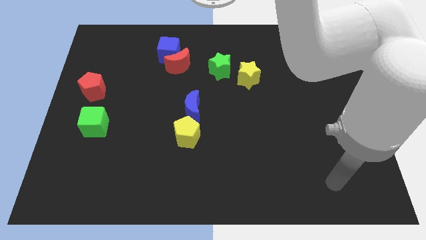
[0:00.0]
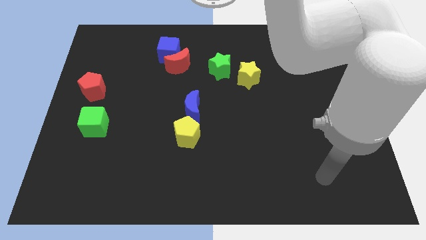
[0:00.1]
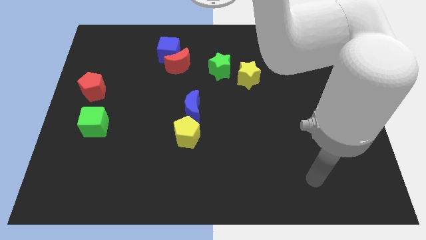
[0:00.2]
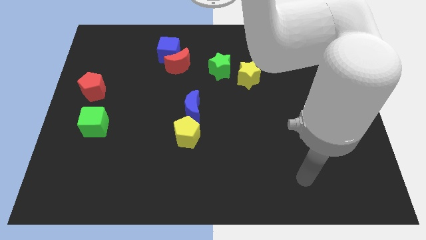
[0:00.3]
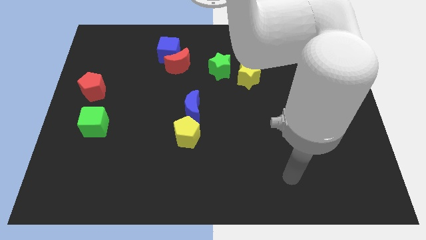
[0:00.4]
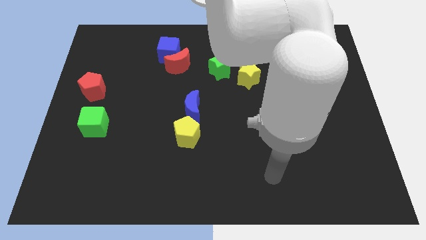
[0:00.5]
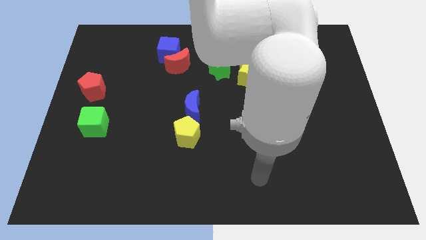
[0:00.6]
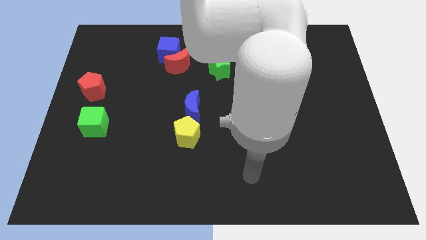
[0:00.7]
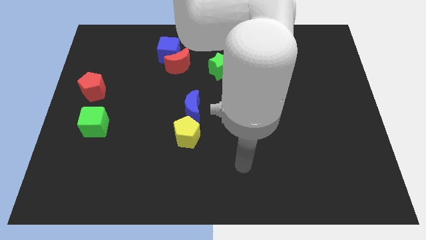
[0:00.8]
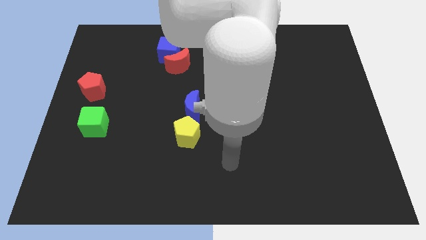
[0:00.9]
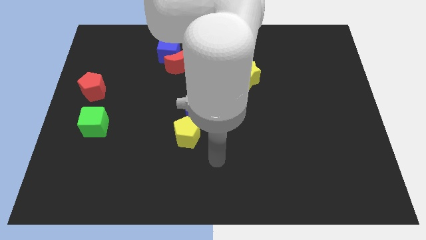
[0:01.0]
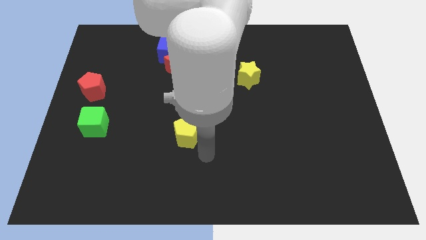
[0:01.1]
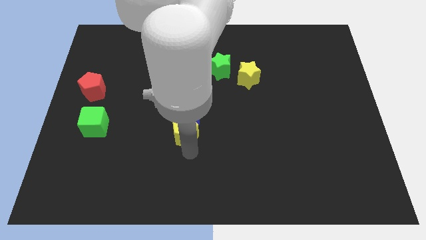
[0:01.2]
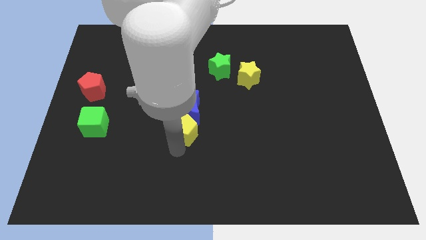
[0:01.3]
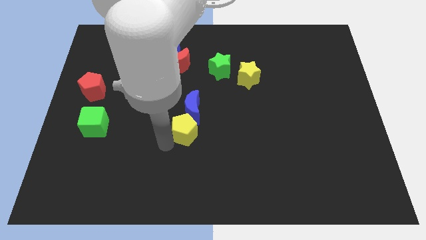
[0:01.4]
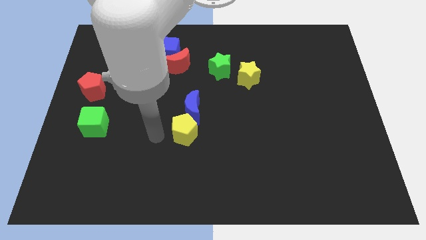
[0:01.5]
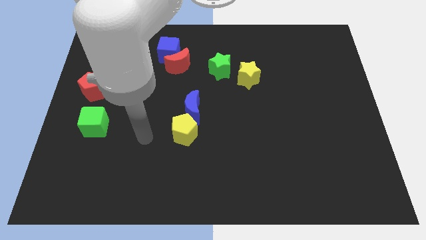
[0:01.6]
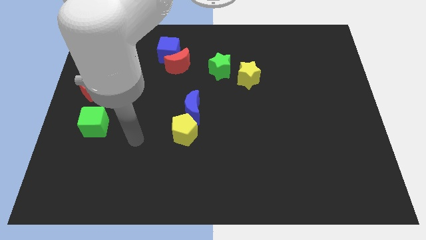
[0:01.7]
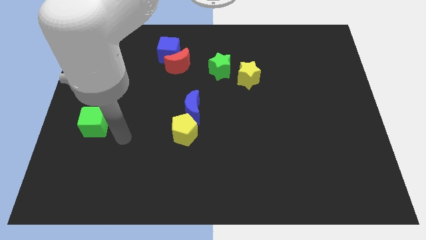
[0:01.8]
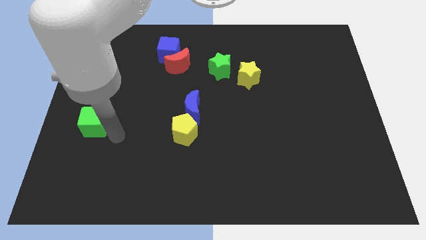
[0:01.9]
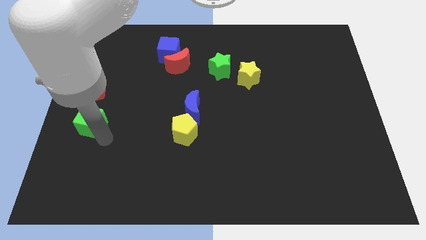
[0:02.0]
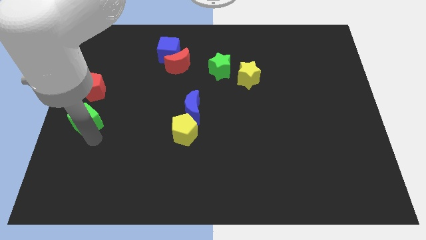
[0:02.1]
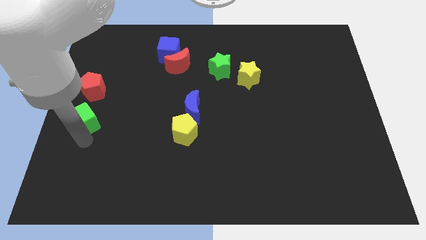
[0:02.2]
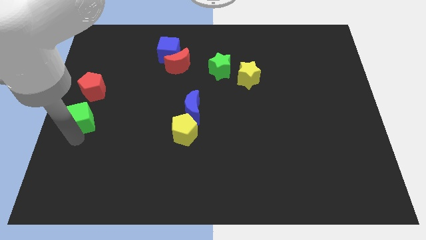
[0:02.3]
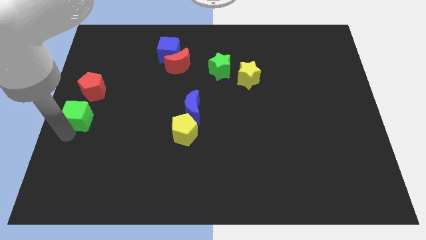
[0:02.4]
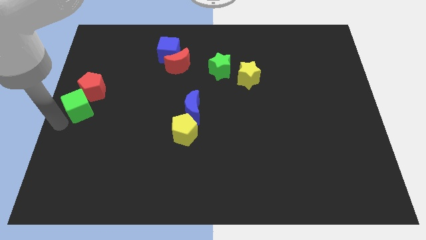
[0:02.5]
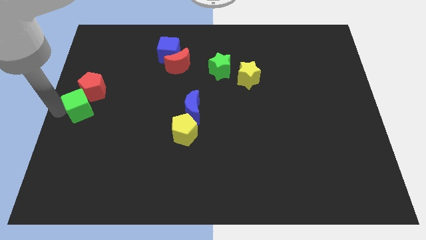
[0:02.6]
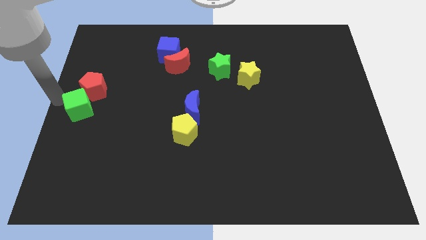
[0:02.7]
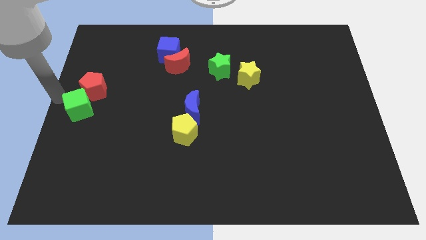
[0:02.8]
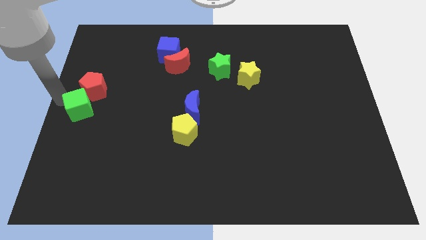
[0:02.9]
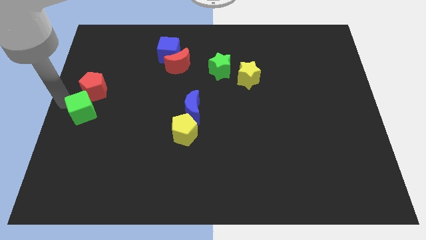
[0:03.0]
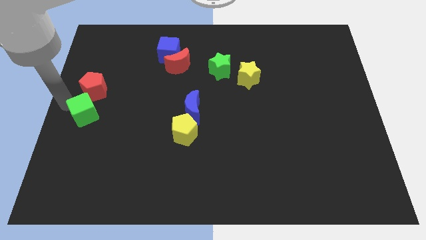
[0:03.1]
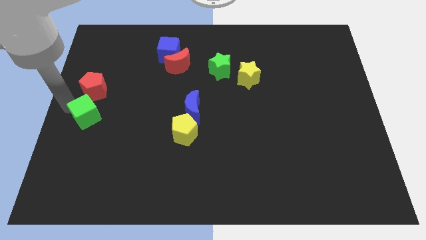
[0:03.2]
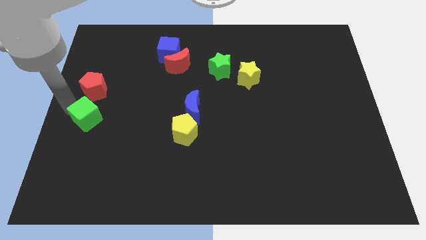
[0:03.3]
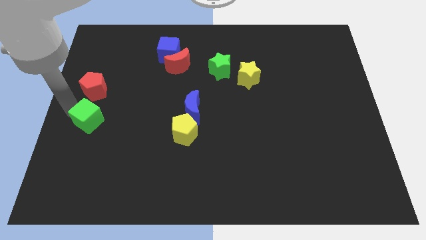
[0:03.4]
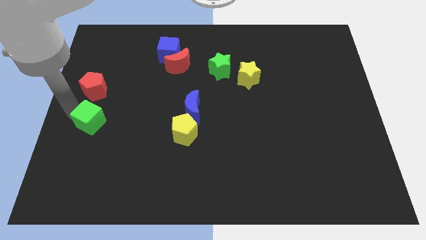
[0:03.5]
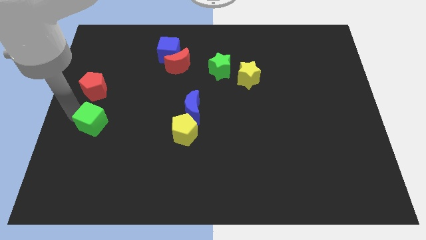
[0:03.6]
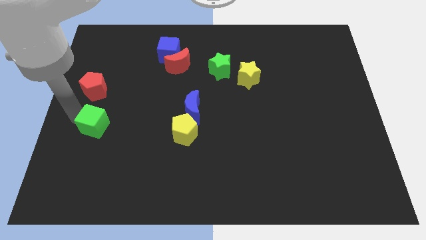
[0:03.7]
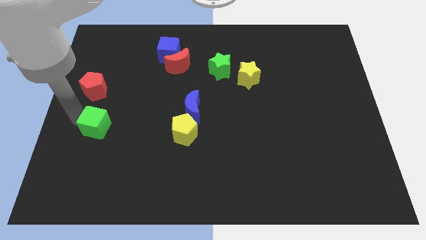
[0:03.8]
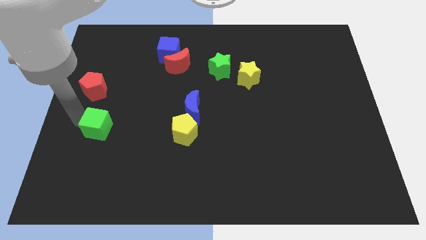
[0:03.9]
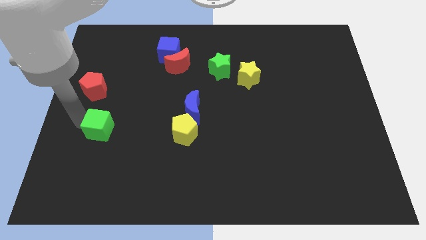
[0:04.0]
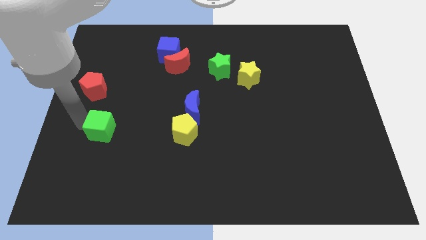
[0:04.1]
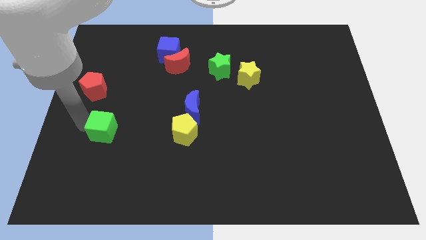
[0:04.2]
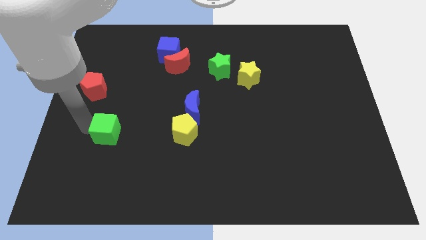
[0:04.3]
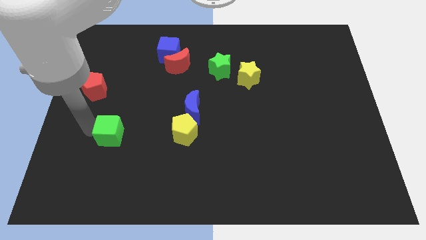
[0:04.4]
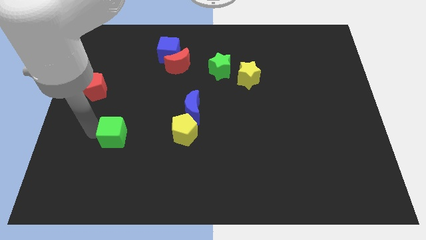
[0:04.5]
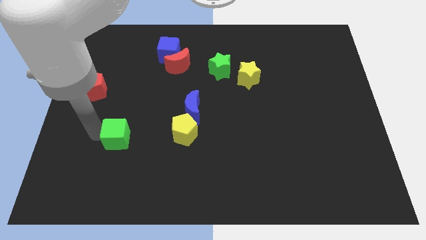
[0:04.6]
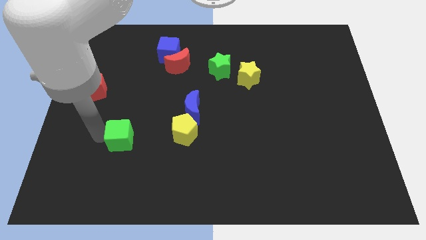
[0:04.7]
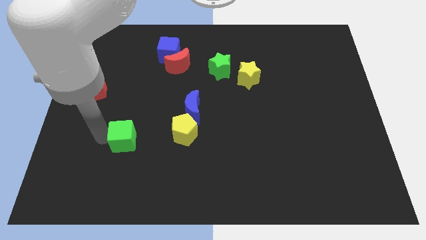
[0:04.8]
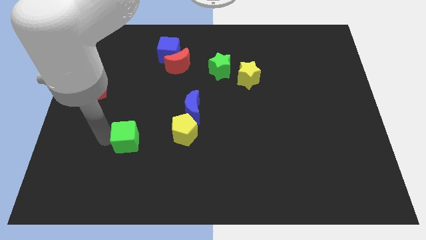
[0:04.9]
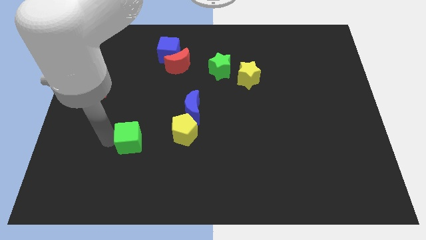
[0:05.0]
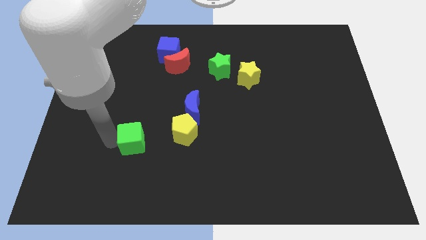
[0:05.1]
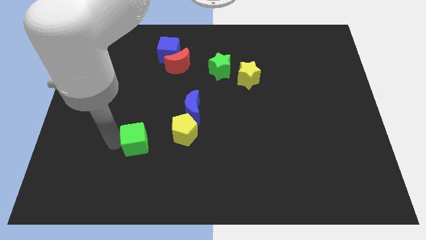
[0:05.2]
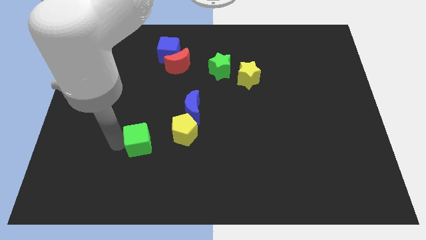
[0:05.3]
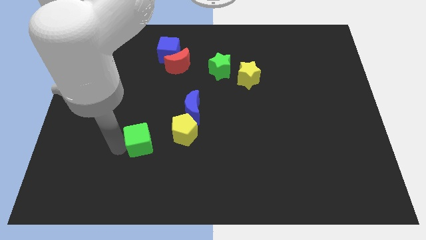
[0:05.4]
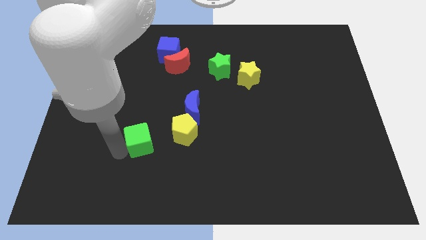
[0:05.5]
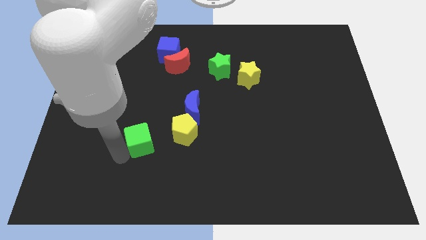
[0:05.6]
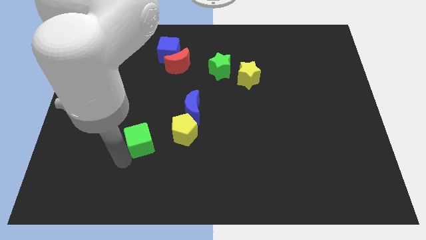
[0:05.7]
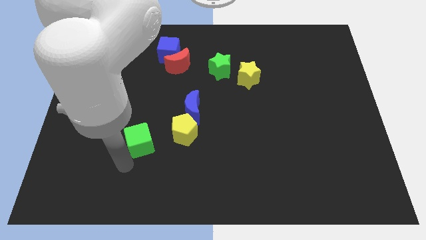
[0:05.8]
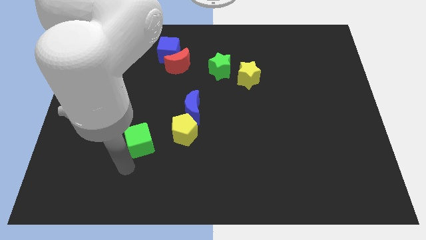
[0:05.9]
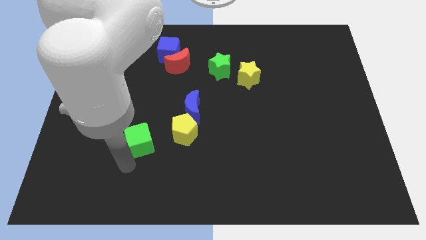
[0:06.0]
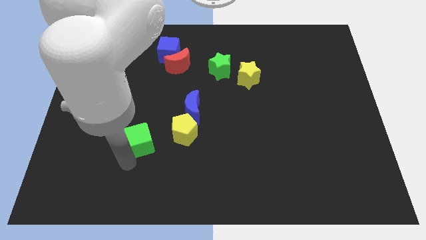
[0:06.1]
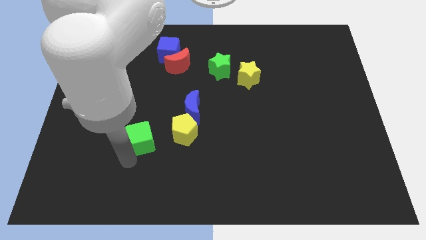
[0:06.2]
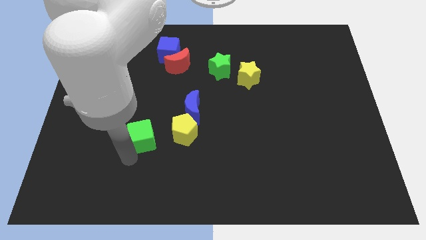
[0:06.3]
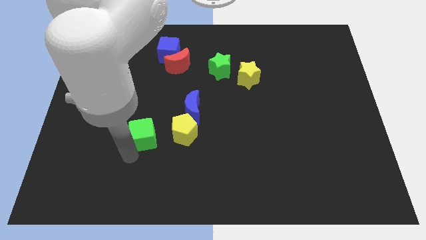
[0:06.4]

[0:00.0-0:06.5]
move the green cube diagonally down and to the left of the blue moon

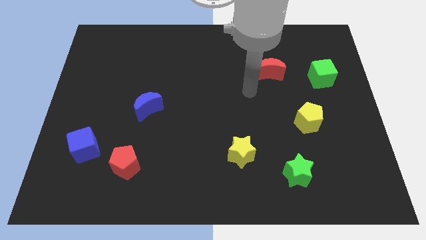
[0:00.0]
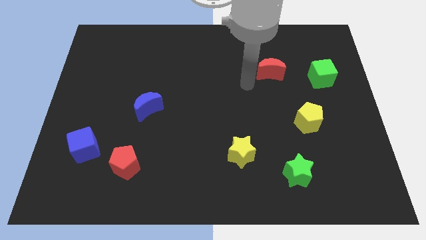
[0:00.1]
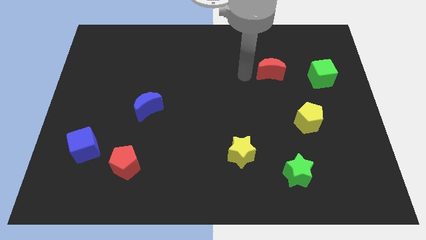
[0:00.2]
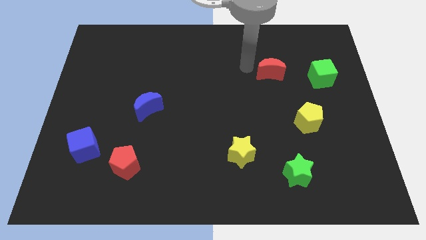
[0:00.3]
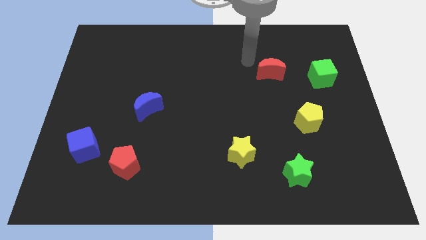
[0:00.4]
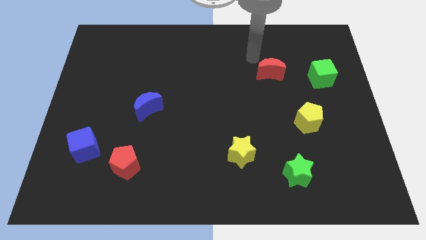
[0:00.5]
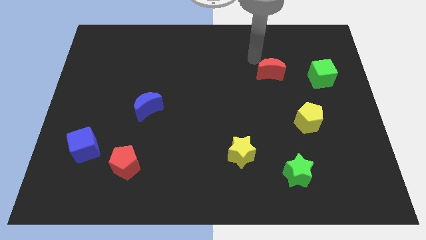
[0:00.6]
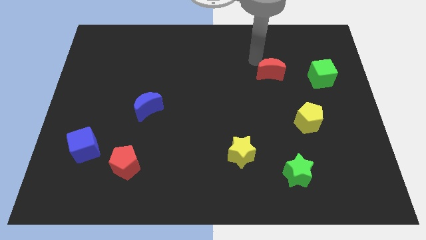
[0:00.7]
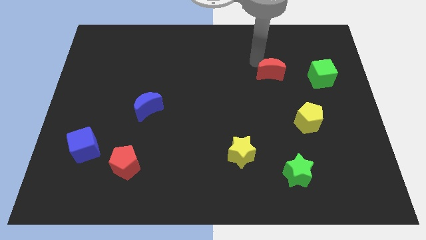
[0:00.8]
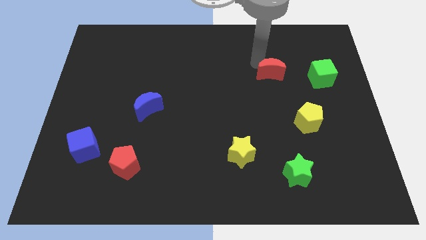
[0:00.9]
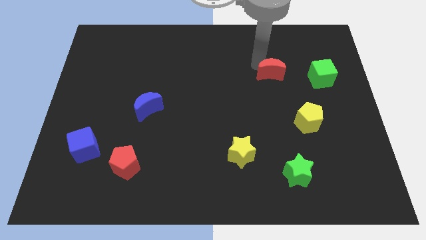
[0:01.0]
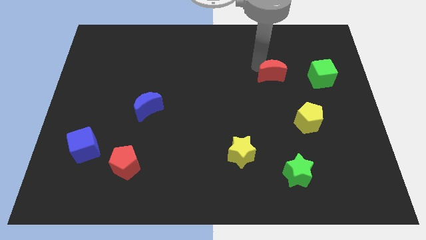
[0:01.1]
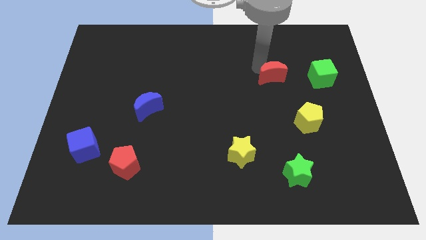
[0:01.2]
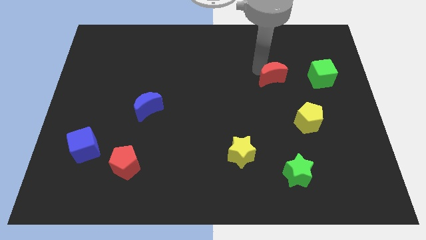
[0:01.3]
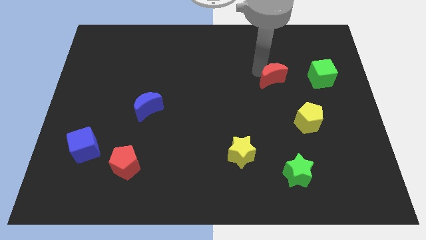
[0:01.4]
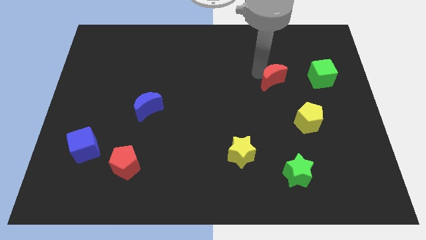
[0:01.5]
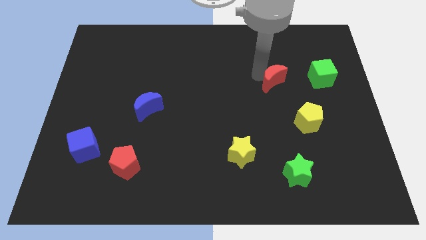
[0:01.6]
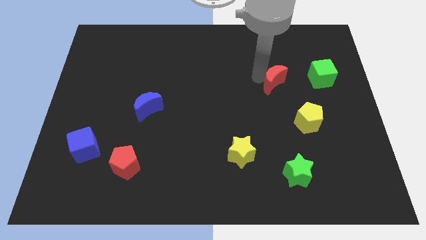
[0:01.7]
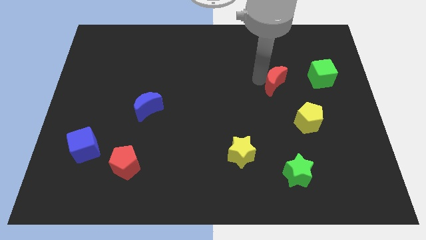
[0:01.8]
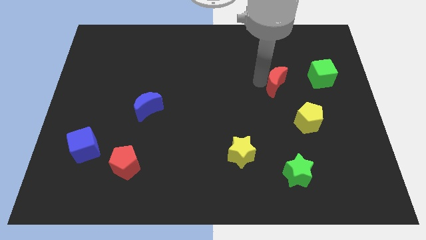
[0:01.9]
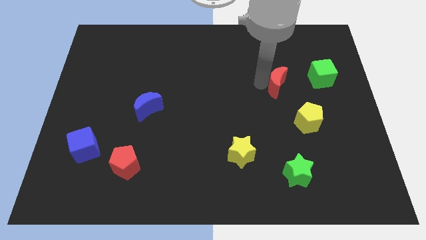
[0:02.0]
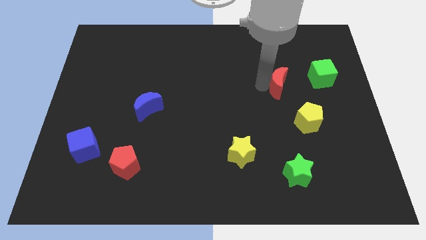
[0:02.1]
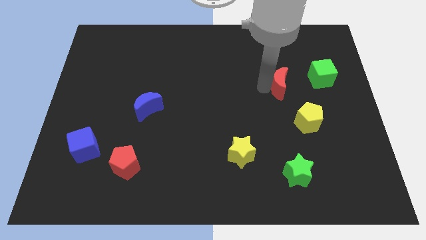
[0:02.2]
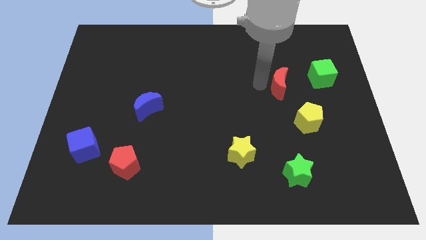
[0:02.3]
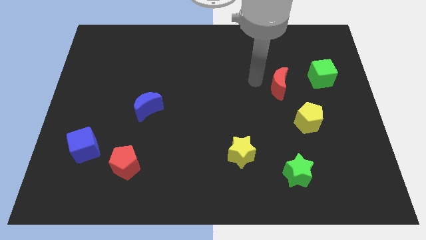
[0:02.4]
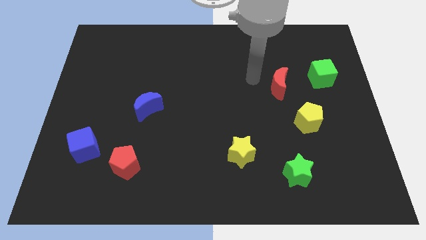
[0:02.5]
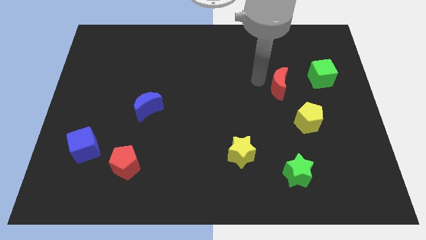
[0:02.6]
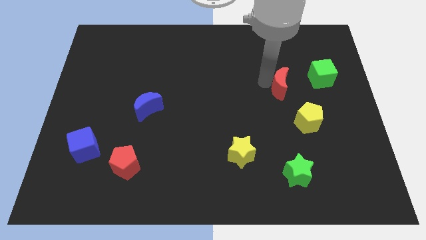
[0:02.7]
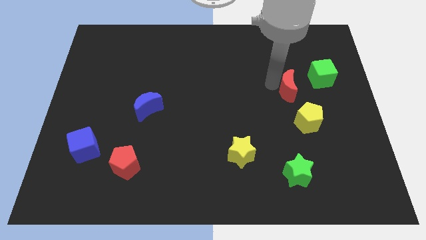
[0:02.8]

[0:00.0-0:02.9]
slide the red moon to the bottom left of the green cube
